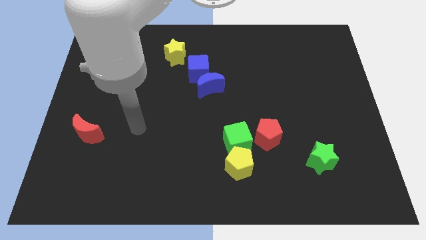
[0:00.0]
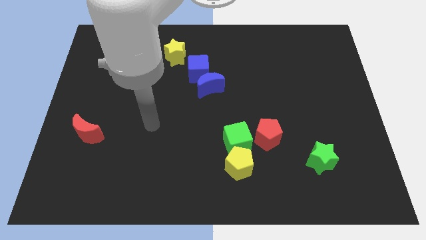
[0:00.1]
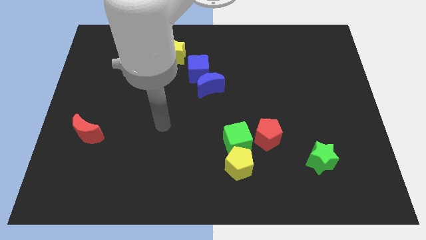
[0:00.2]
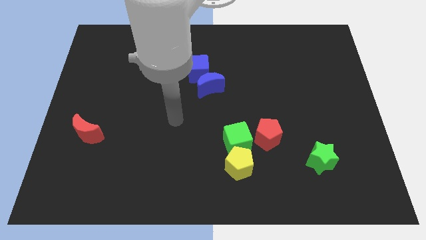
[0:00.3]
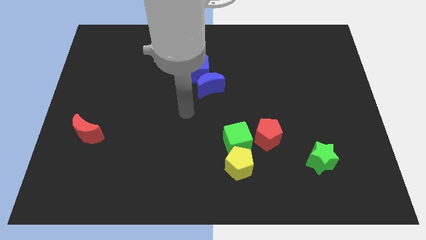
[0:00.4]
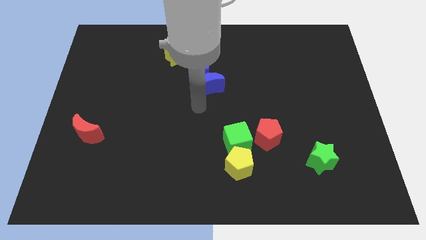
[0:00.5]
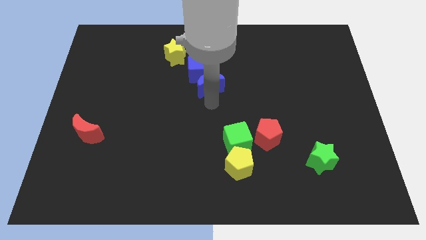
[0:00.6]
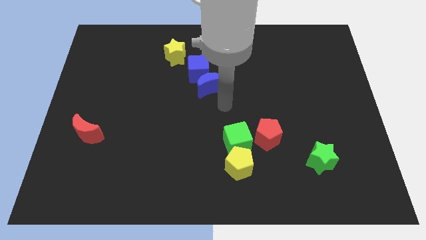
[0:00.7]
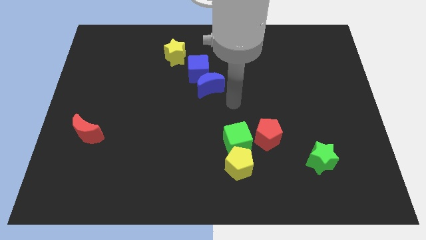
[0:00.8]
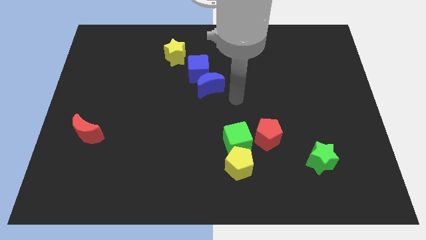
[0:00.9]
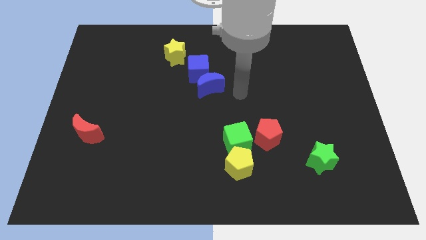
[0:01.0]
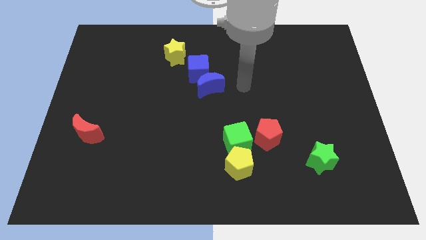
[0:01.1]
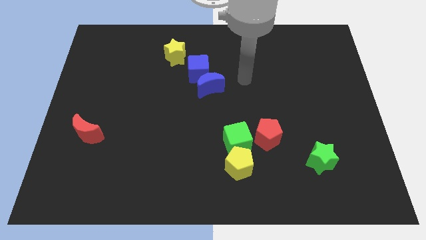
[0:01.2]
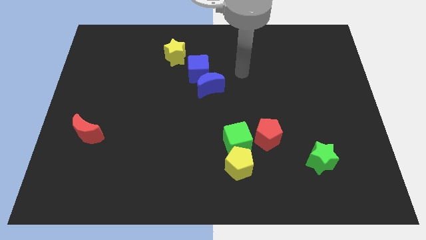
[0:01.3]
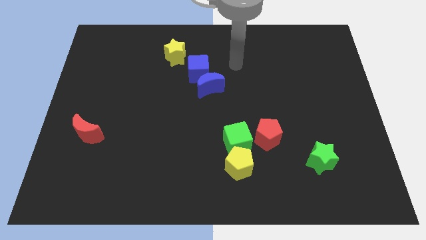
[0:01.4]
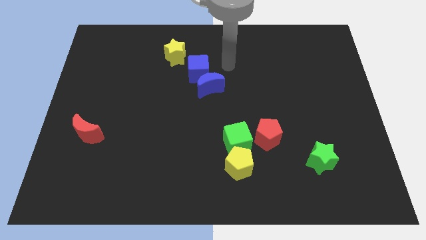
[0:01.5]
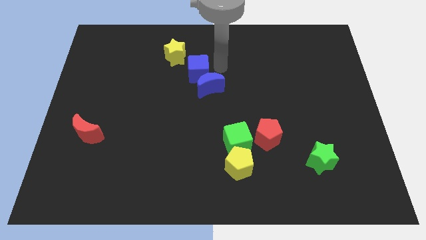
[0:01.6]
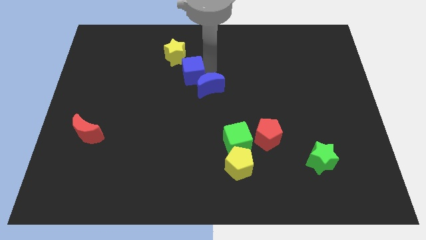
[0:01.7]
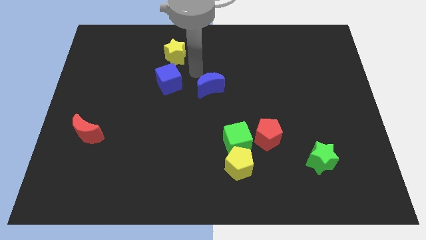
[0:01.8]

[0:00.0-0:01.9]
separate the blue moon from the blue cube

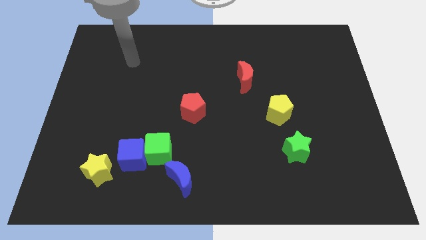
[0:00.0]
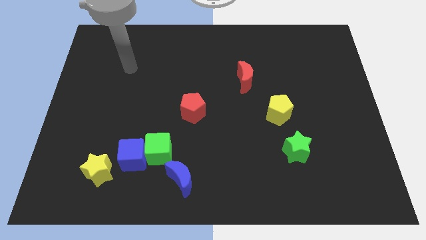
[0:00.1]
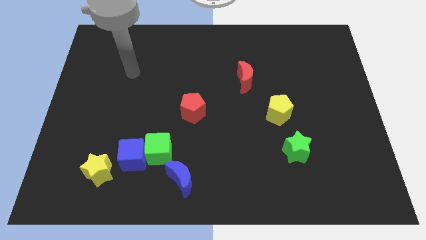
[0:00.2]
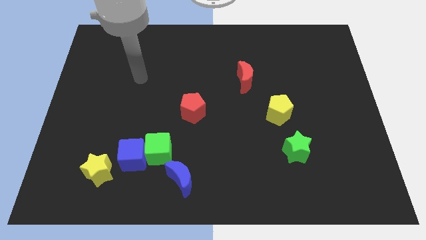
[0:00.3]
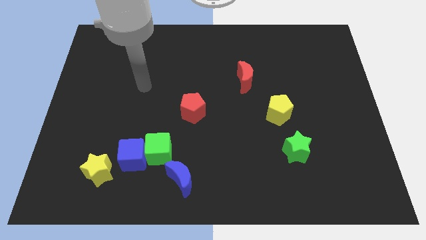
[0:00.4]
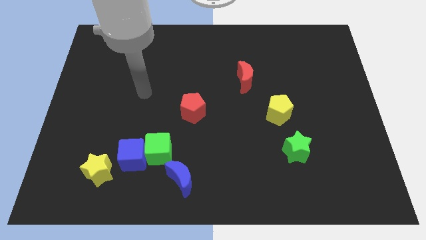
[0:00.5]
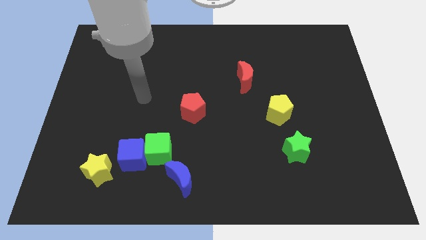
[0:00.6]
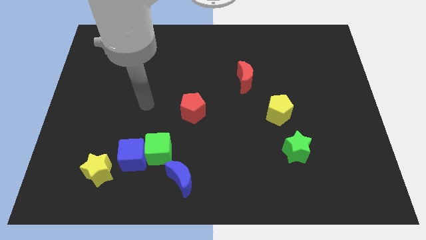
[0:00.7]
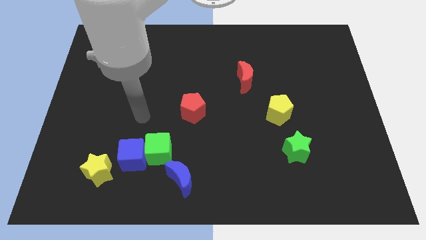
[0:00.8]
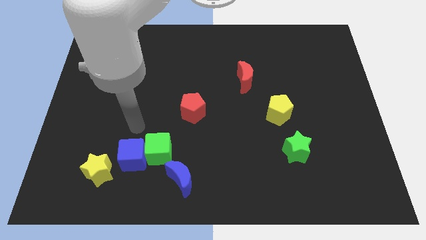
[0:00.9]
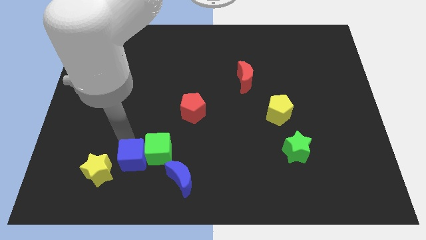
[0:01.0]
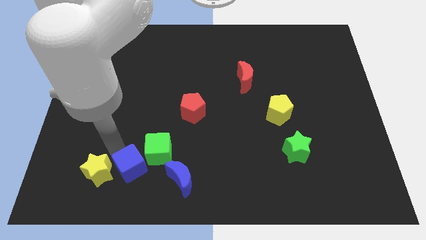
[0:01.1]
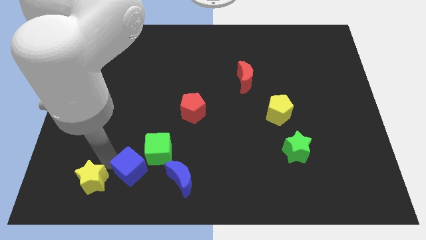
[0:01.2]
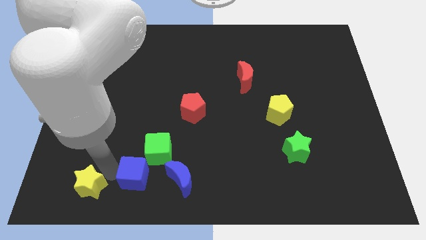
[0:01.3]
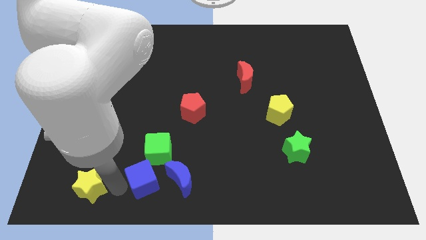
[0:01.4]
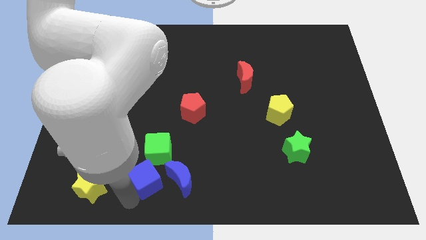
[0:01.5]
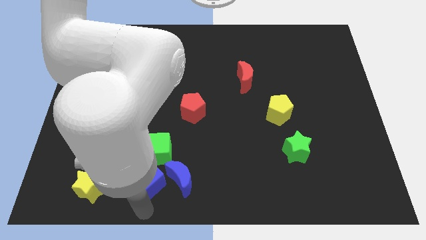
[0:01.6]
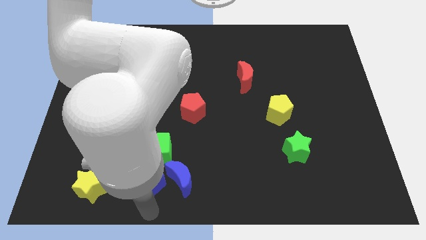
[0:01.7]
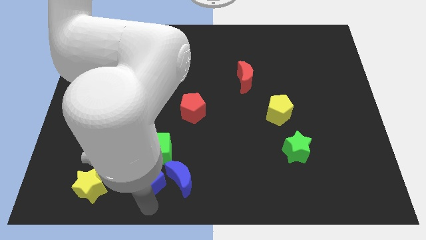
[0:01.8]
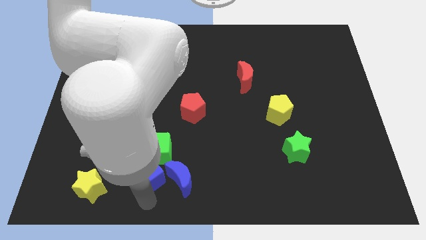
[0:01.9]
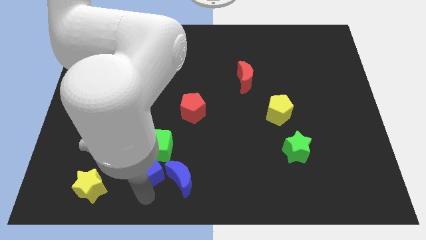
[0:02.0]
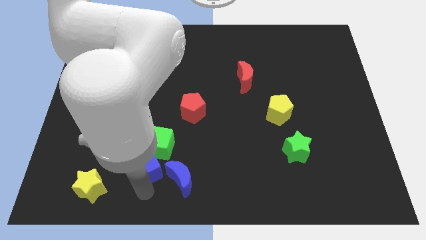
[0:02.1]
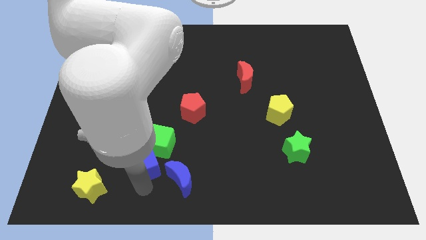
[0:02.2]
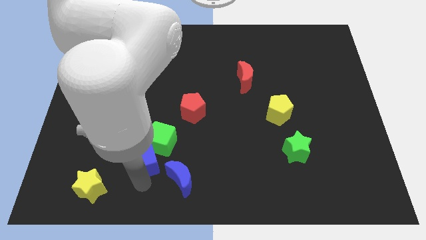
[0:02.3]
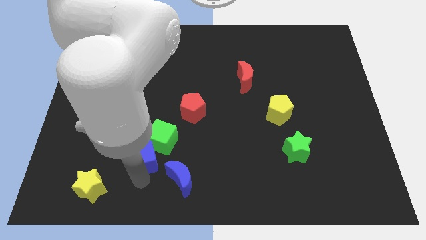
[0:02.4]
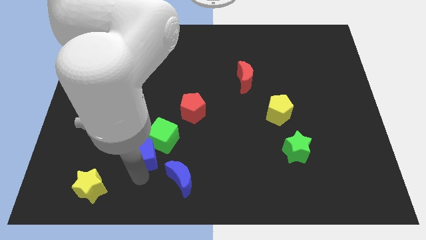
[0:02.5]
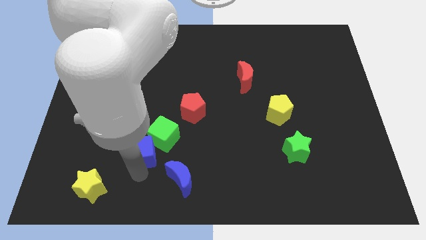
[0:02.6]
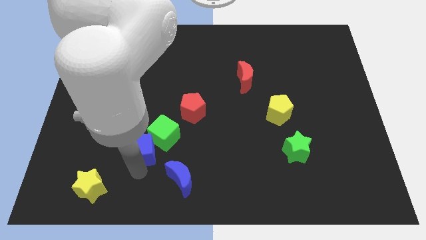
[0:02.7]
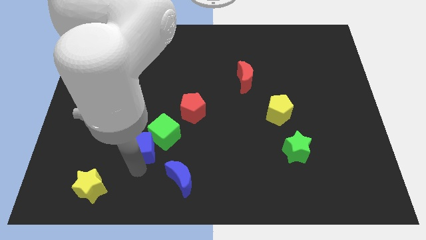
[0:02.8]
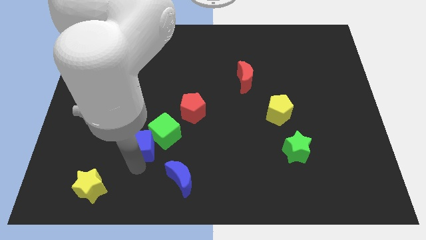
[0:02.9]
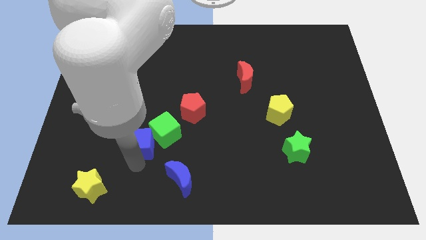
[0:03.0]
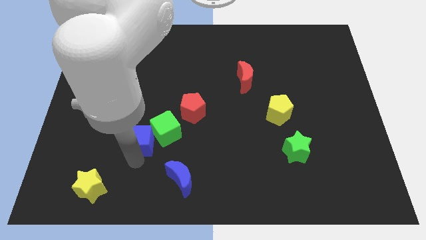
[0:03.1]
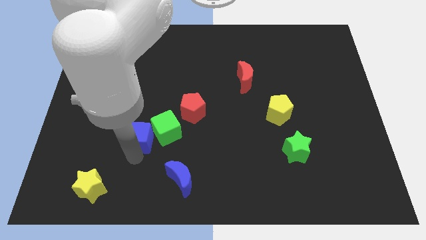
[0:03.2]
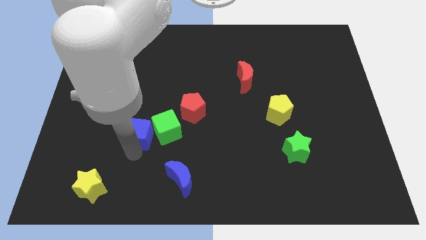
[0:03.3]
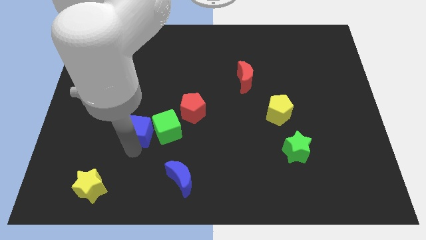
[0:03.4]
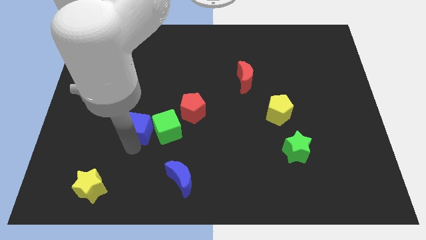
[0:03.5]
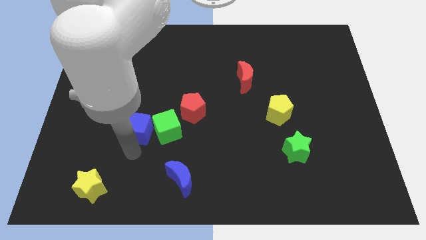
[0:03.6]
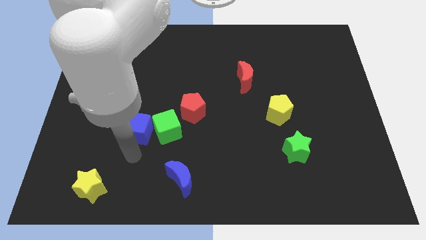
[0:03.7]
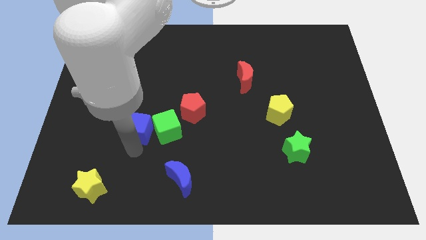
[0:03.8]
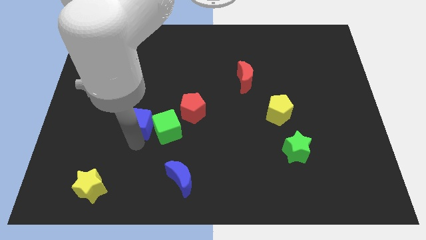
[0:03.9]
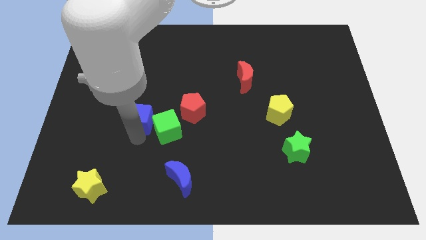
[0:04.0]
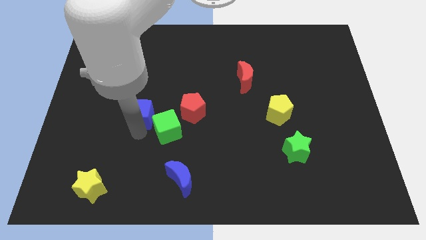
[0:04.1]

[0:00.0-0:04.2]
move the blue cube away from the green cube and yellow star

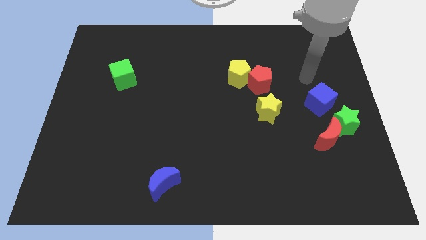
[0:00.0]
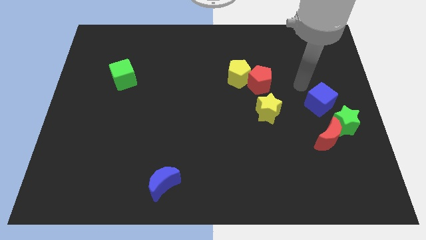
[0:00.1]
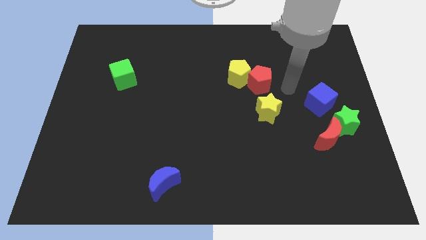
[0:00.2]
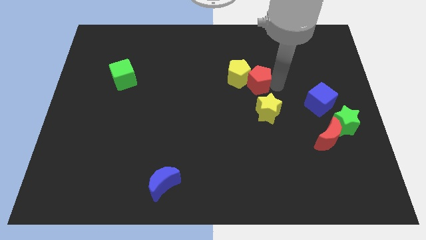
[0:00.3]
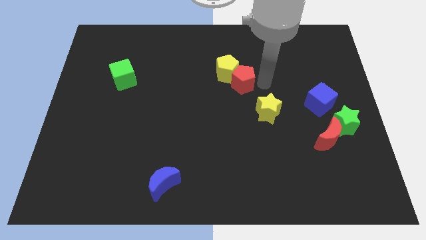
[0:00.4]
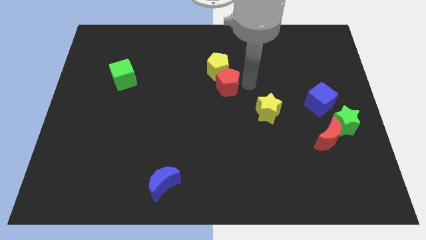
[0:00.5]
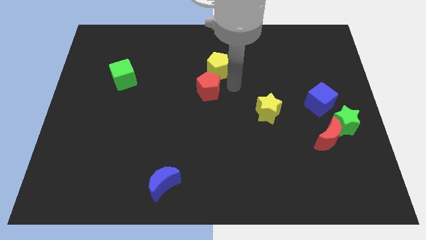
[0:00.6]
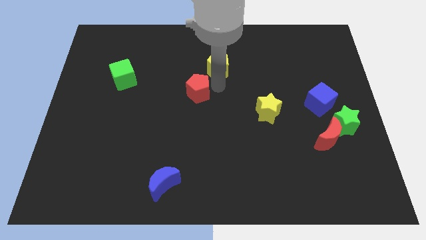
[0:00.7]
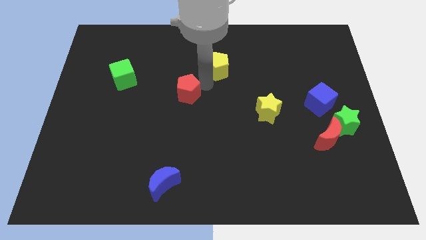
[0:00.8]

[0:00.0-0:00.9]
move the yellow pentagon away from the red pentagon

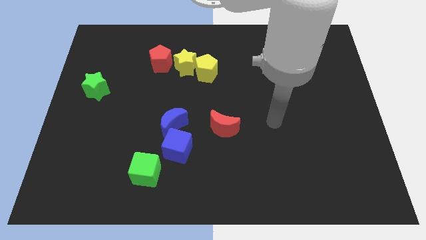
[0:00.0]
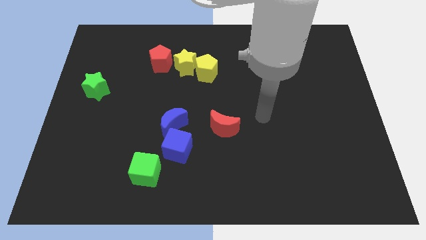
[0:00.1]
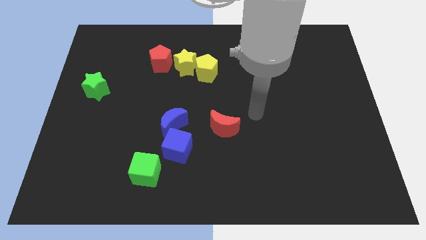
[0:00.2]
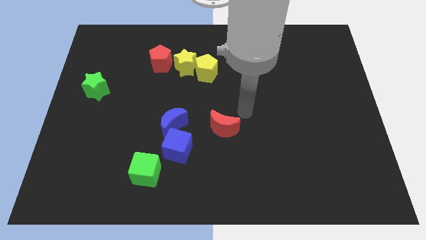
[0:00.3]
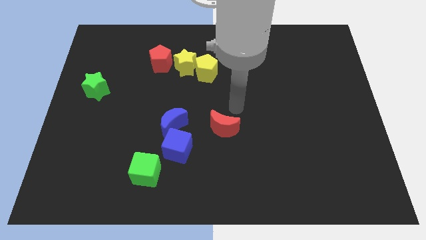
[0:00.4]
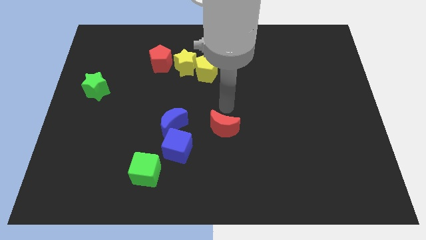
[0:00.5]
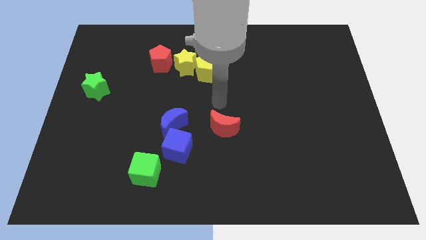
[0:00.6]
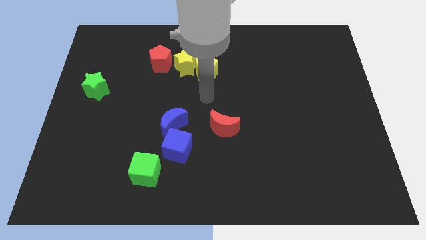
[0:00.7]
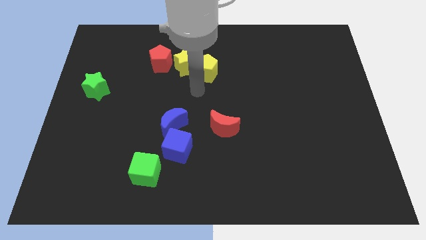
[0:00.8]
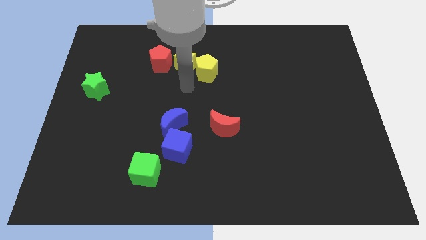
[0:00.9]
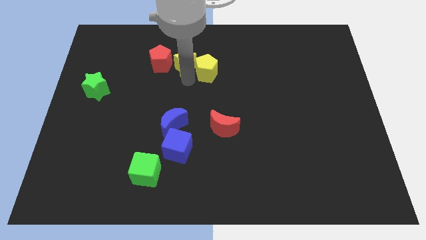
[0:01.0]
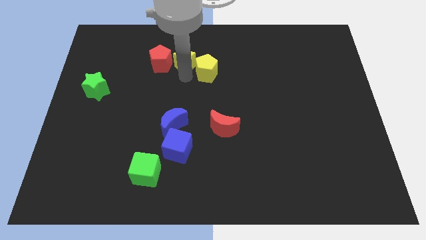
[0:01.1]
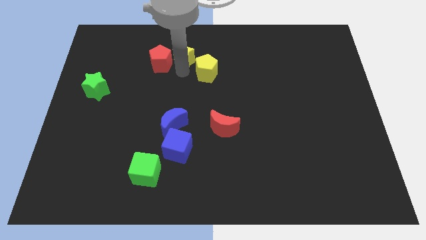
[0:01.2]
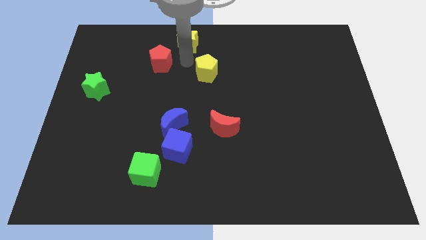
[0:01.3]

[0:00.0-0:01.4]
pull the yellow pentagon apart from the yellow star

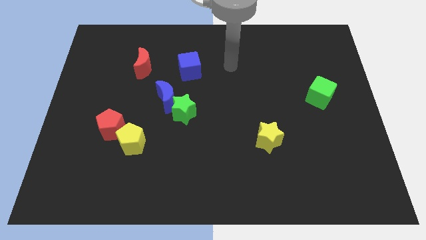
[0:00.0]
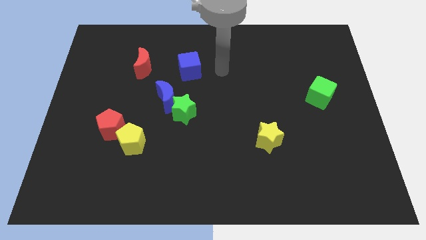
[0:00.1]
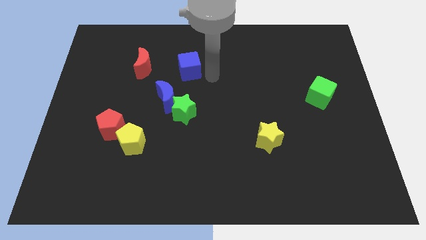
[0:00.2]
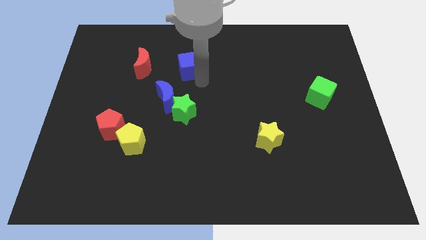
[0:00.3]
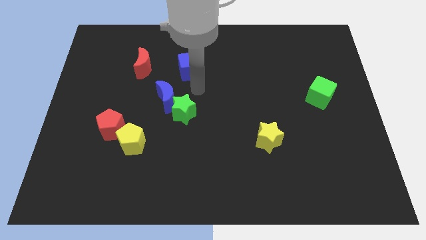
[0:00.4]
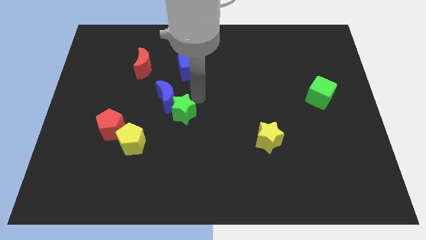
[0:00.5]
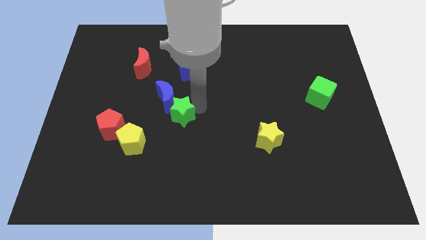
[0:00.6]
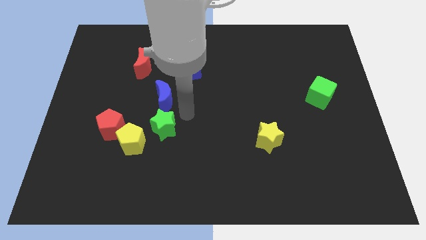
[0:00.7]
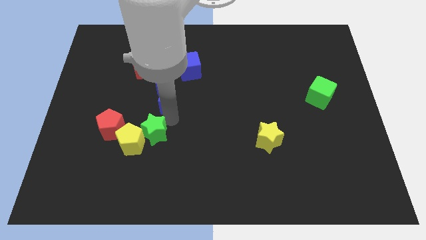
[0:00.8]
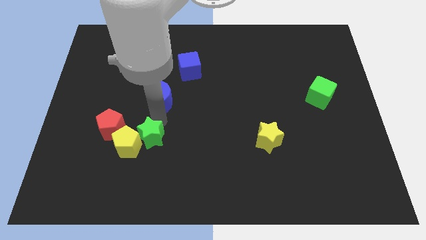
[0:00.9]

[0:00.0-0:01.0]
pull the blue moon apart from the green star
